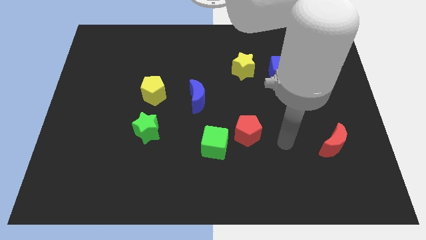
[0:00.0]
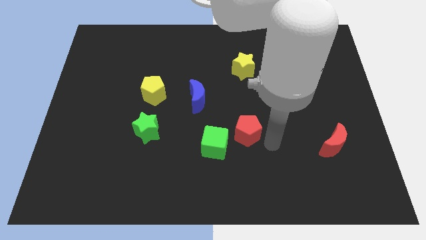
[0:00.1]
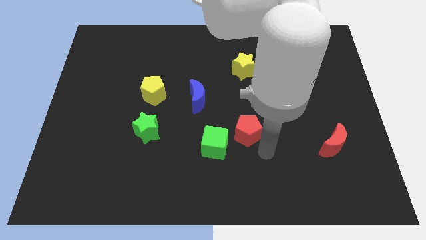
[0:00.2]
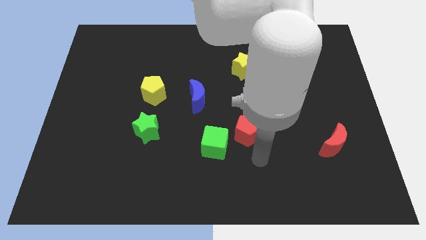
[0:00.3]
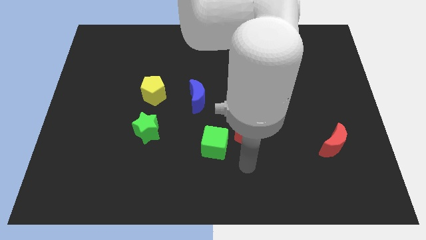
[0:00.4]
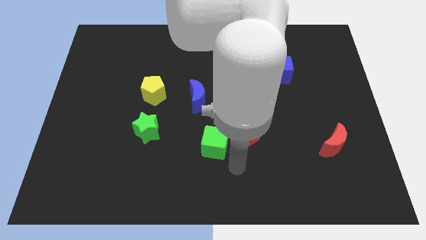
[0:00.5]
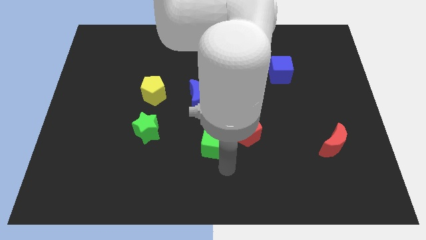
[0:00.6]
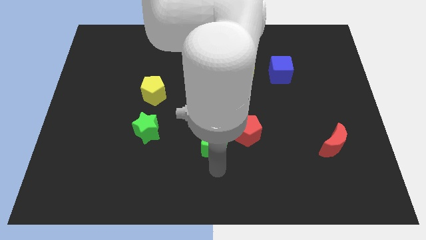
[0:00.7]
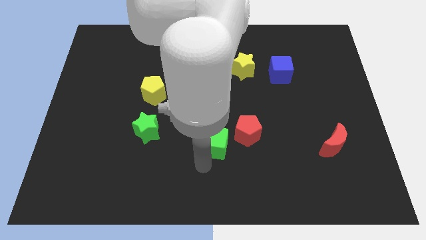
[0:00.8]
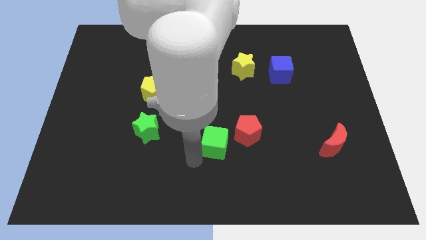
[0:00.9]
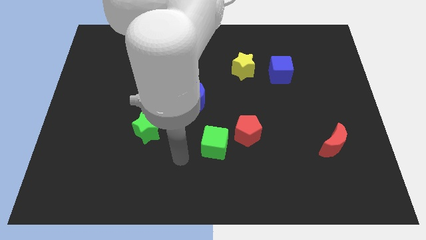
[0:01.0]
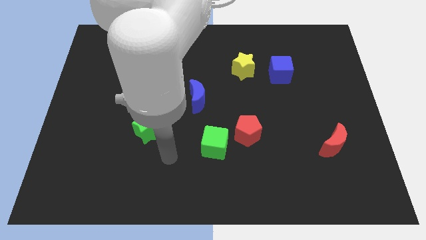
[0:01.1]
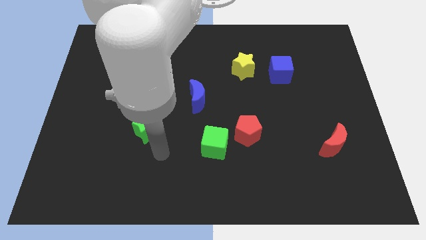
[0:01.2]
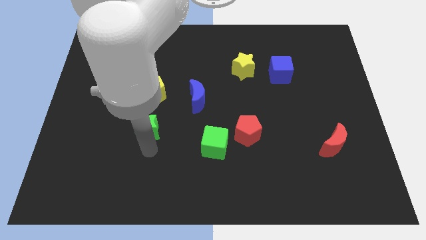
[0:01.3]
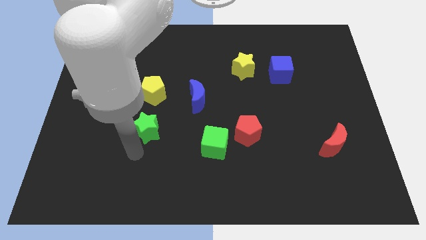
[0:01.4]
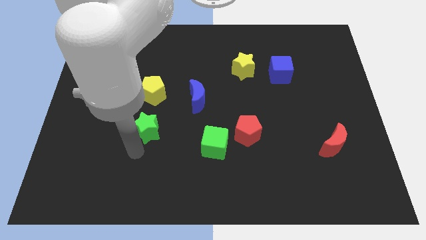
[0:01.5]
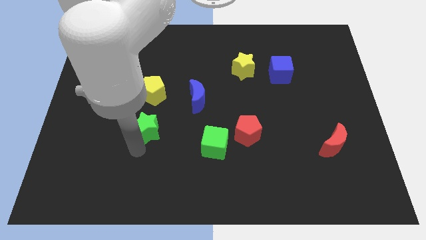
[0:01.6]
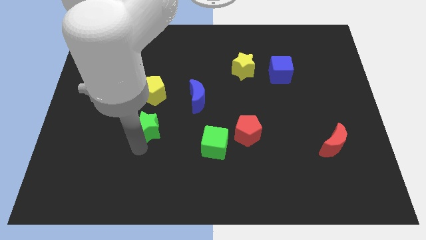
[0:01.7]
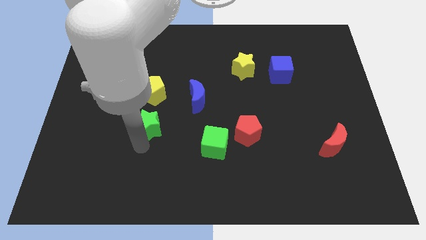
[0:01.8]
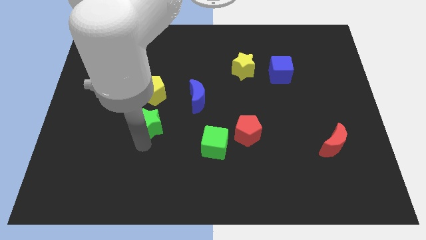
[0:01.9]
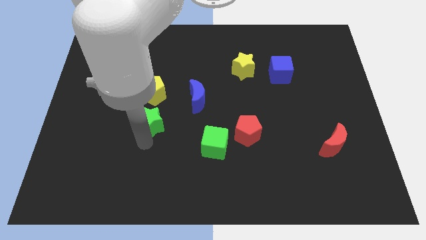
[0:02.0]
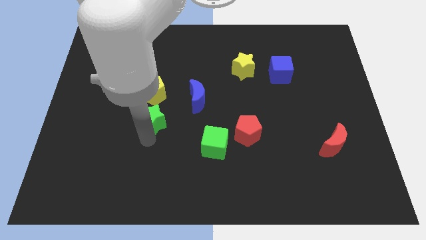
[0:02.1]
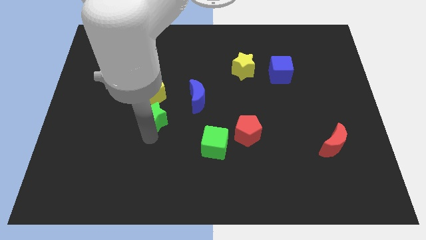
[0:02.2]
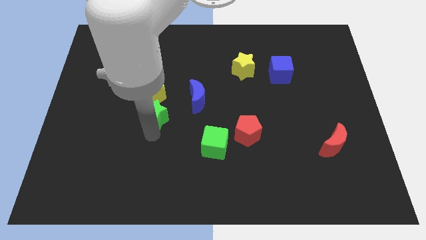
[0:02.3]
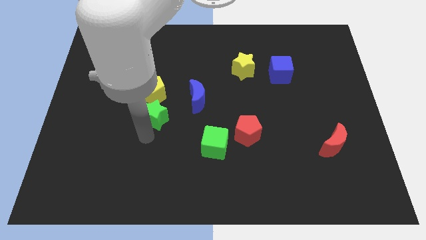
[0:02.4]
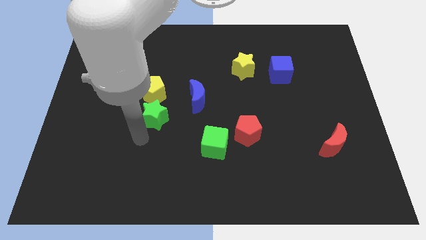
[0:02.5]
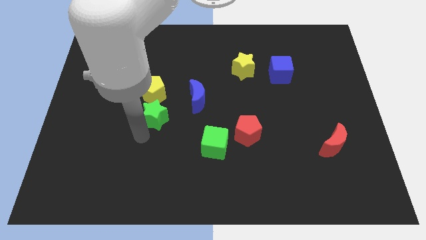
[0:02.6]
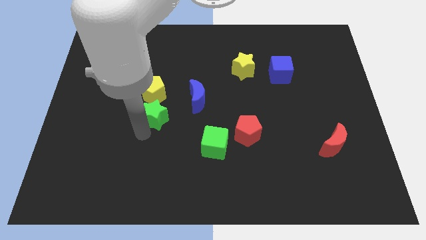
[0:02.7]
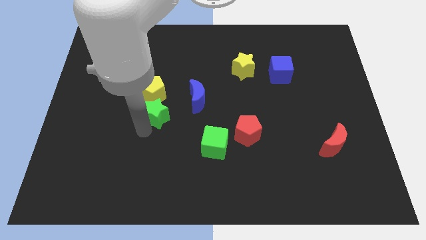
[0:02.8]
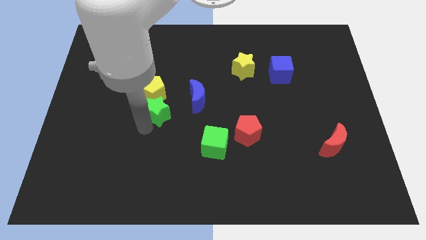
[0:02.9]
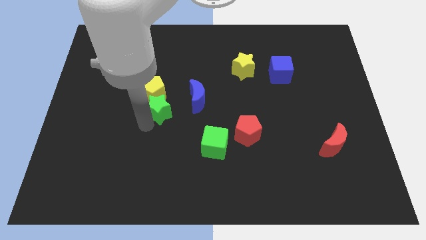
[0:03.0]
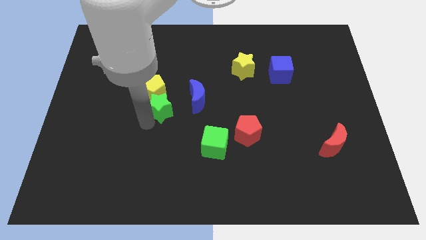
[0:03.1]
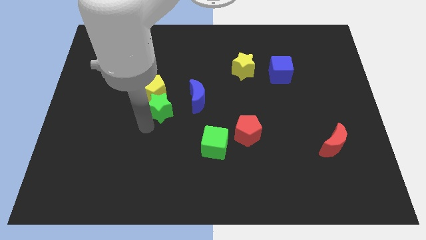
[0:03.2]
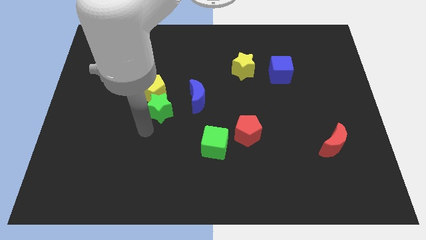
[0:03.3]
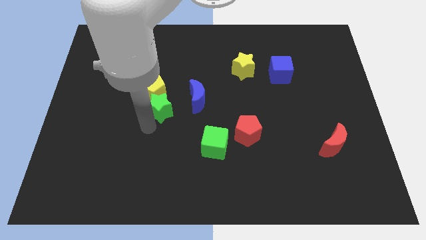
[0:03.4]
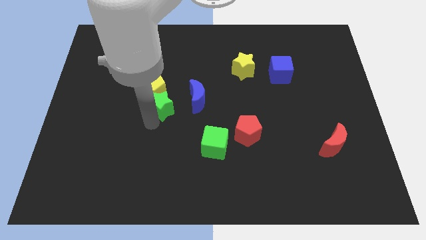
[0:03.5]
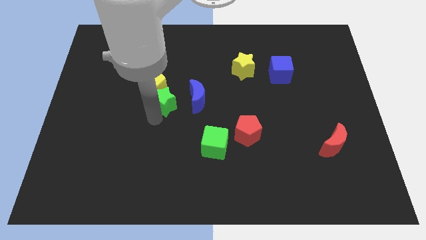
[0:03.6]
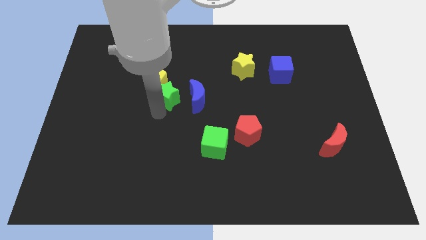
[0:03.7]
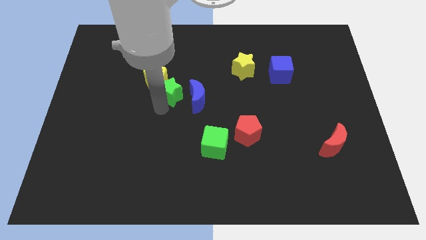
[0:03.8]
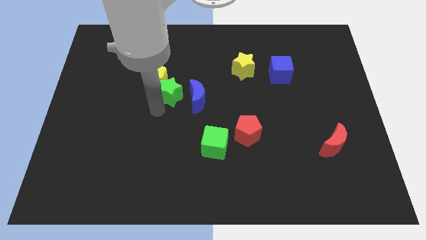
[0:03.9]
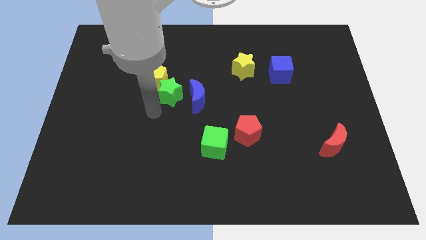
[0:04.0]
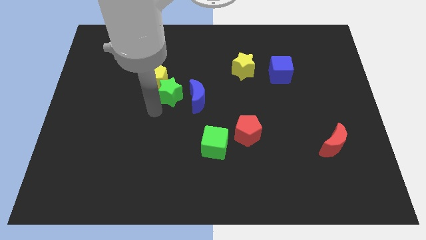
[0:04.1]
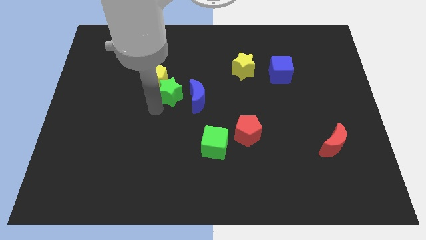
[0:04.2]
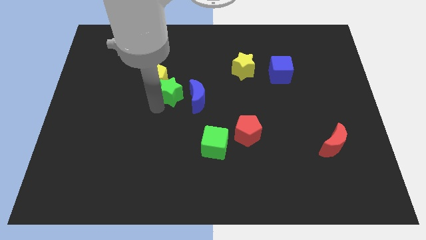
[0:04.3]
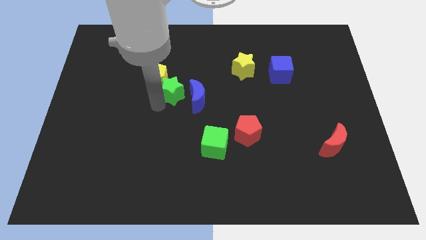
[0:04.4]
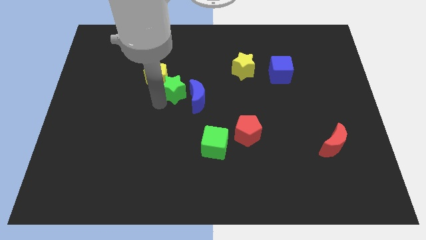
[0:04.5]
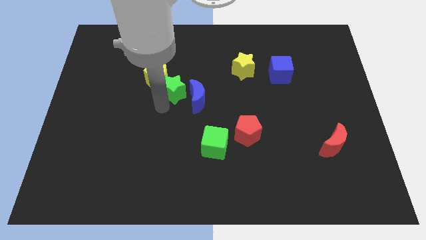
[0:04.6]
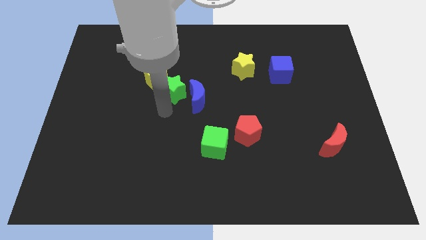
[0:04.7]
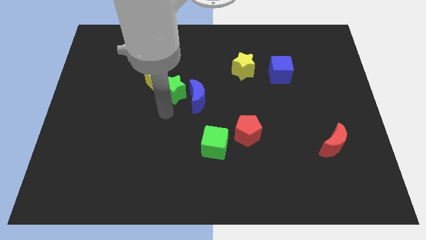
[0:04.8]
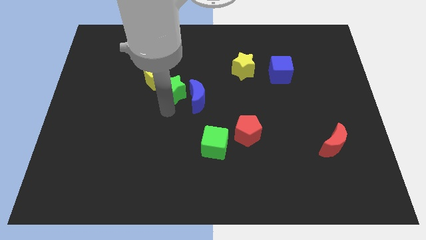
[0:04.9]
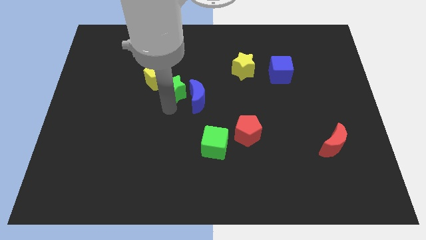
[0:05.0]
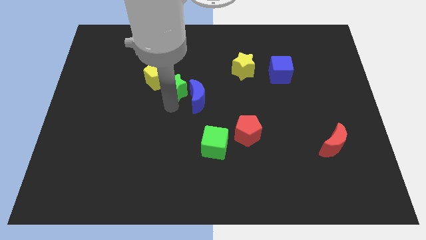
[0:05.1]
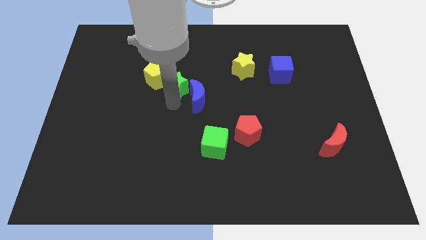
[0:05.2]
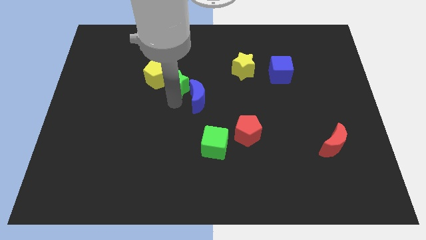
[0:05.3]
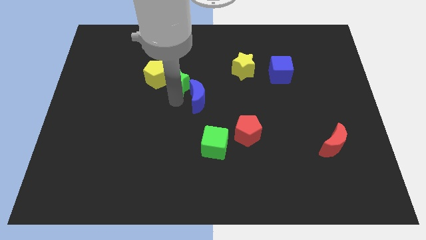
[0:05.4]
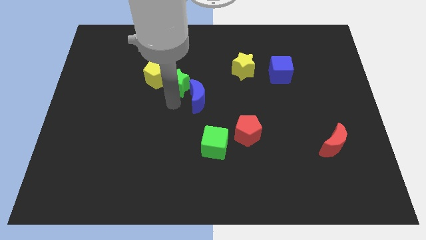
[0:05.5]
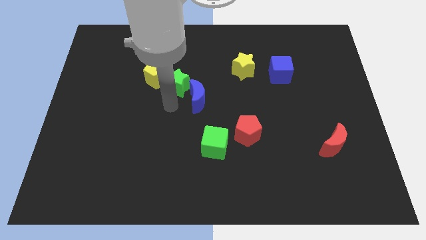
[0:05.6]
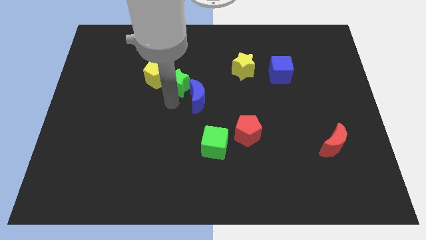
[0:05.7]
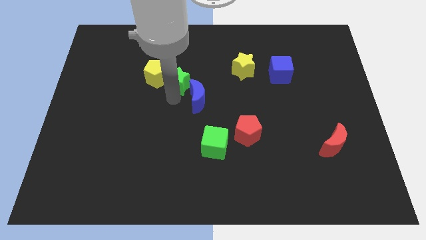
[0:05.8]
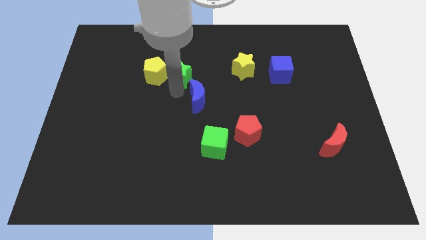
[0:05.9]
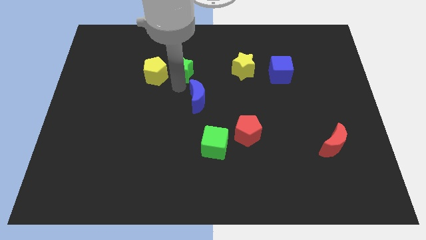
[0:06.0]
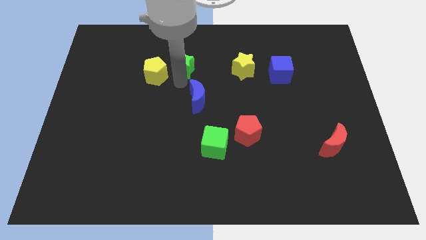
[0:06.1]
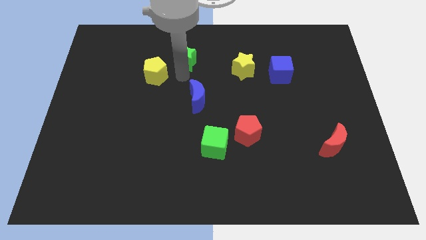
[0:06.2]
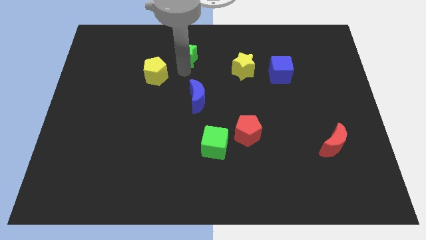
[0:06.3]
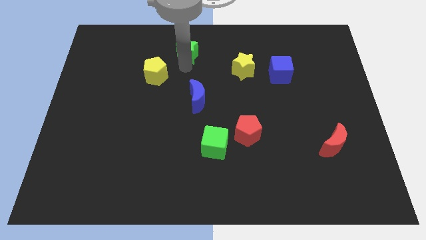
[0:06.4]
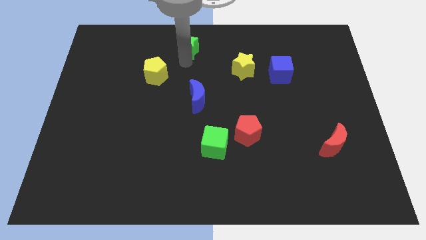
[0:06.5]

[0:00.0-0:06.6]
put the green star to the top side
